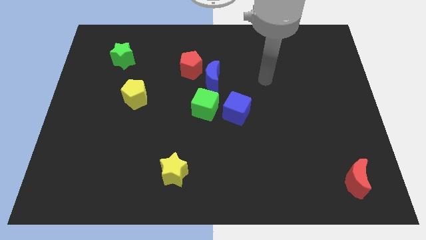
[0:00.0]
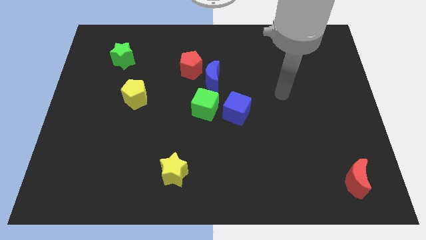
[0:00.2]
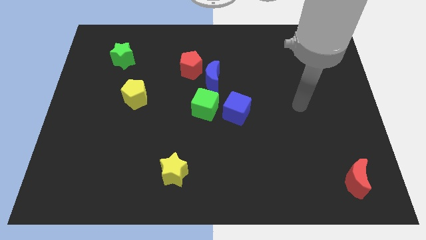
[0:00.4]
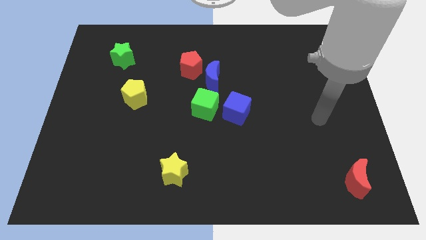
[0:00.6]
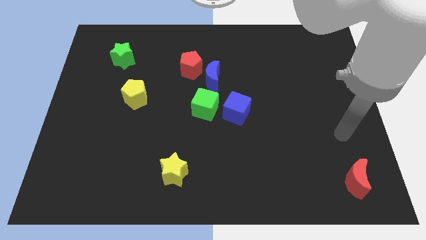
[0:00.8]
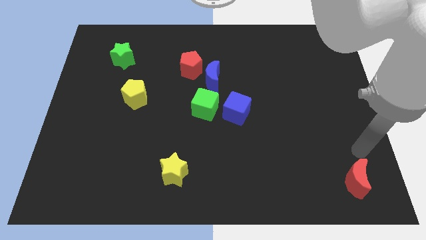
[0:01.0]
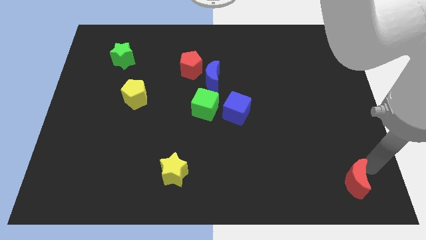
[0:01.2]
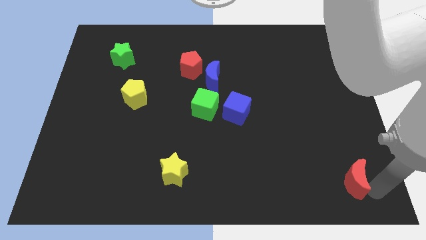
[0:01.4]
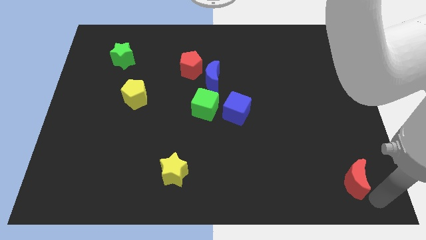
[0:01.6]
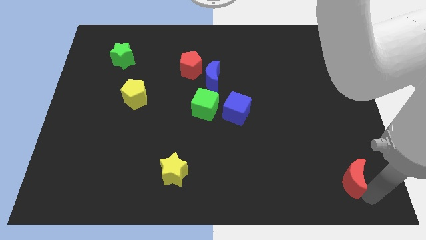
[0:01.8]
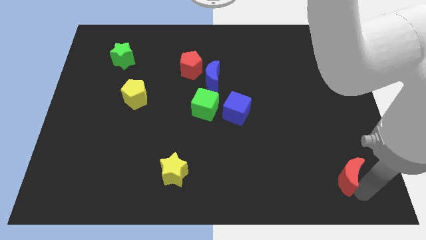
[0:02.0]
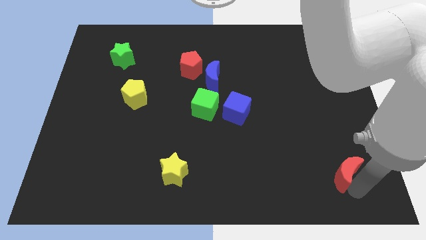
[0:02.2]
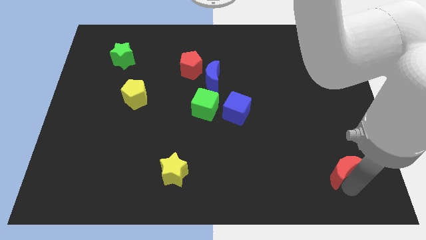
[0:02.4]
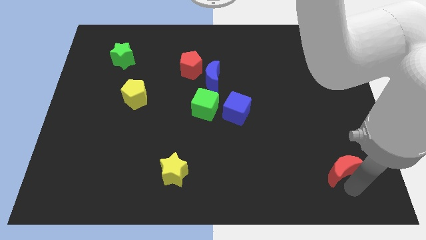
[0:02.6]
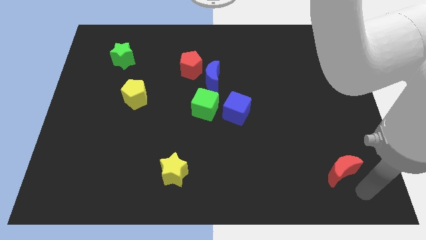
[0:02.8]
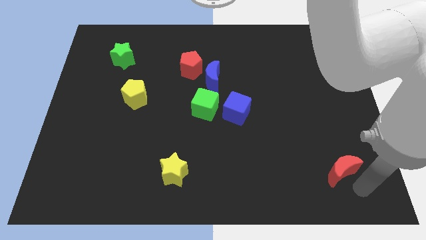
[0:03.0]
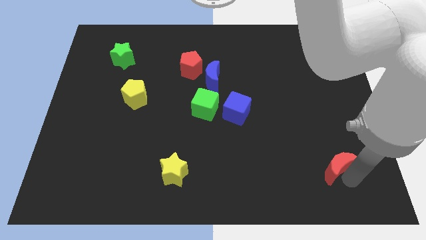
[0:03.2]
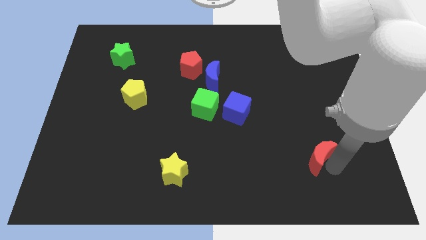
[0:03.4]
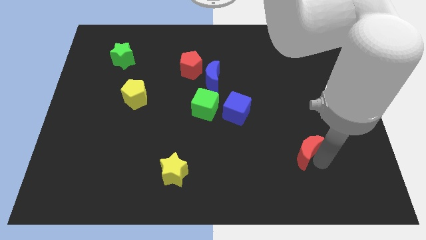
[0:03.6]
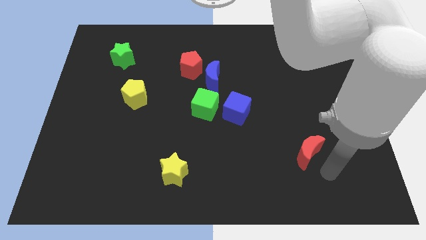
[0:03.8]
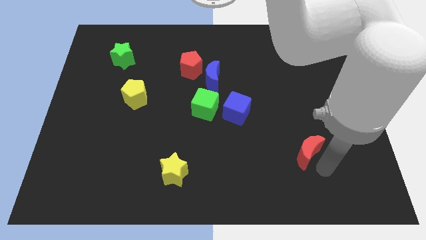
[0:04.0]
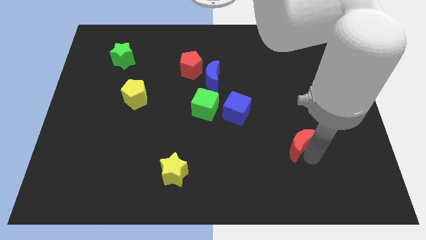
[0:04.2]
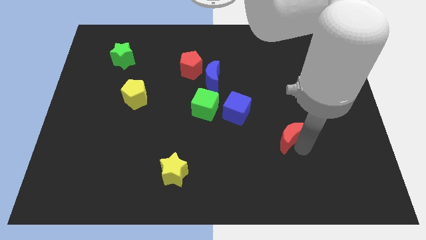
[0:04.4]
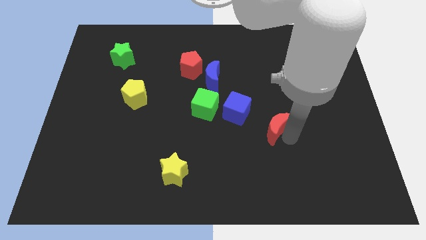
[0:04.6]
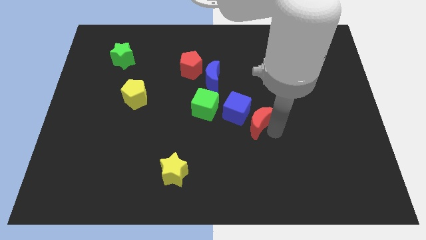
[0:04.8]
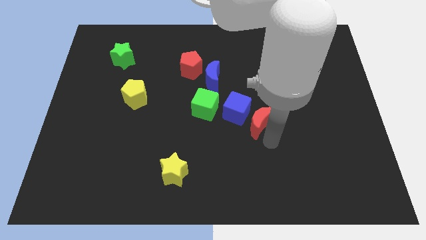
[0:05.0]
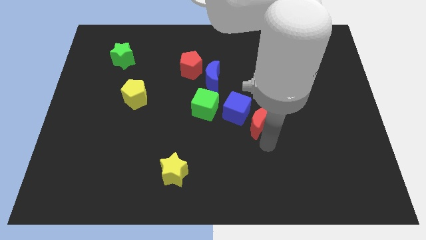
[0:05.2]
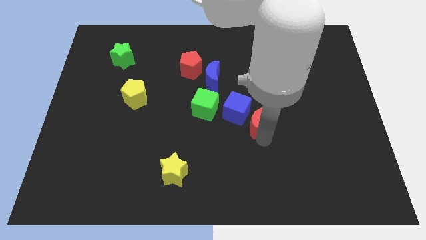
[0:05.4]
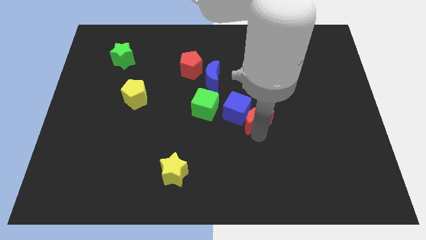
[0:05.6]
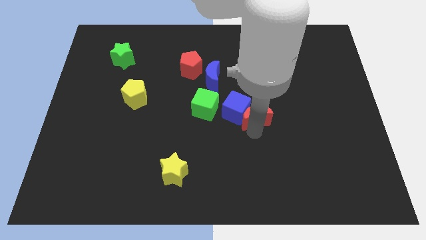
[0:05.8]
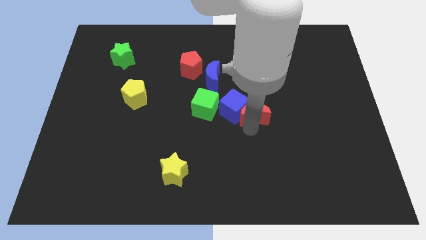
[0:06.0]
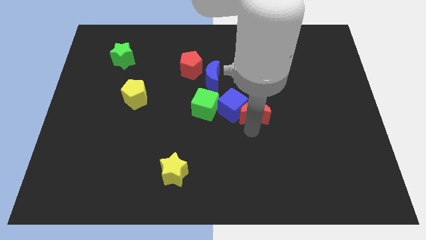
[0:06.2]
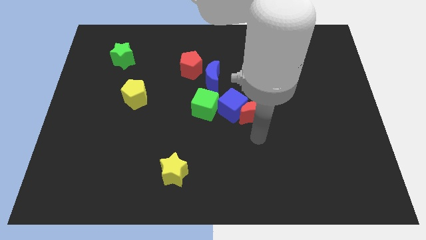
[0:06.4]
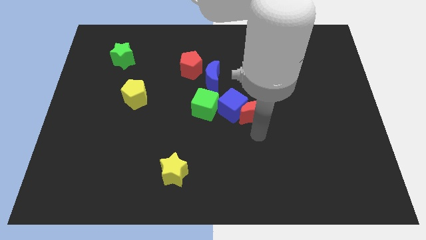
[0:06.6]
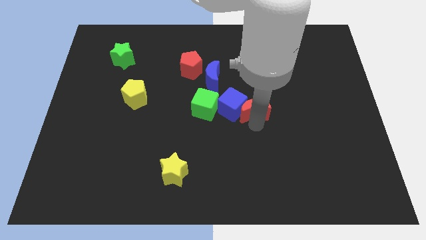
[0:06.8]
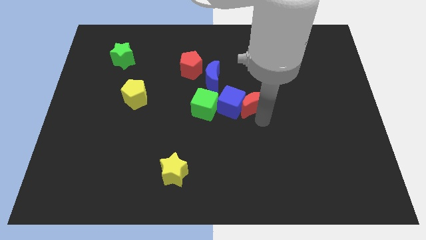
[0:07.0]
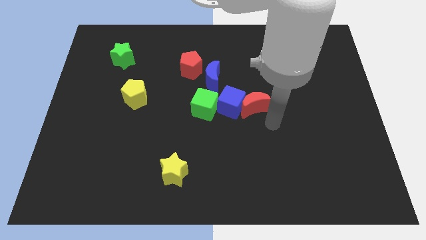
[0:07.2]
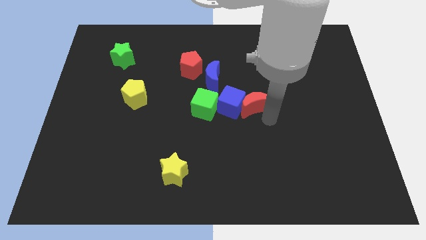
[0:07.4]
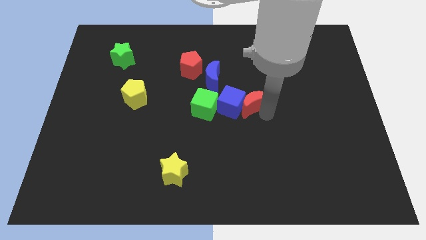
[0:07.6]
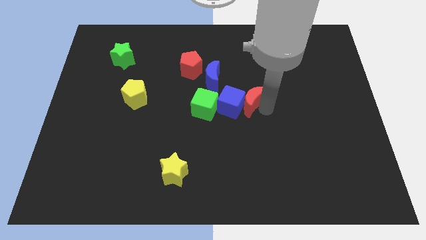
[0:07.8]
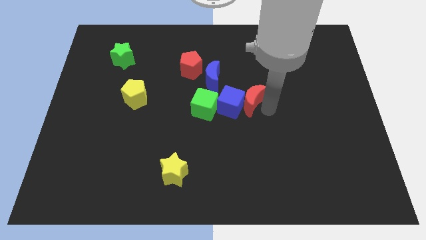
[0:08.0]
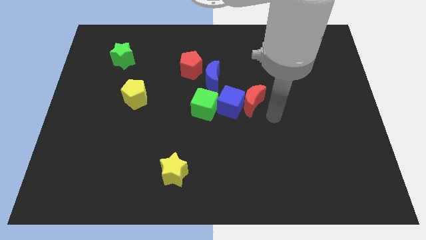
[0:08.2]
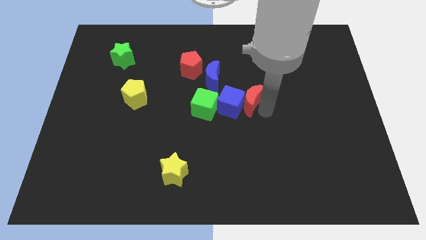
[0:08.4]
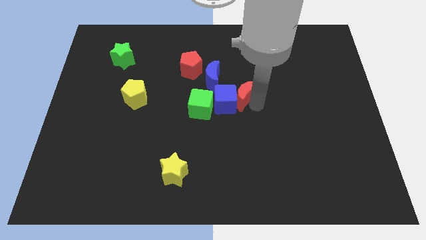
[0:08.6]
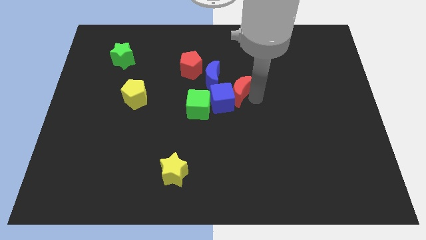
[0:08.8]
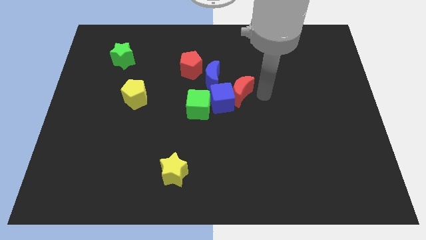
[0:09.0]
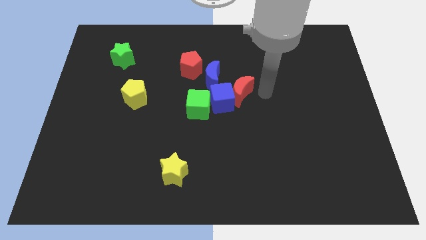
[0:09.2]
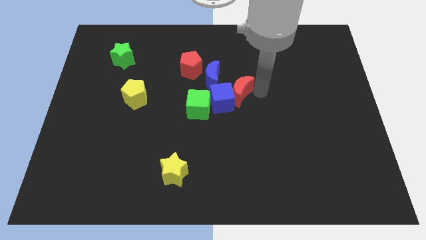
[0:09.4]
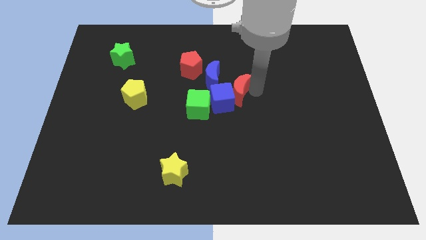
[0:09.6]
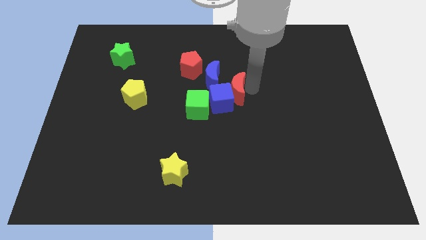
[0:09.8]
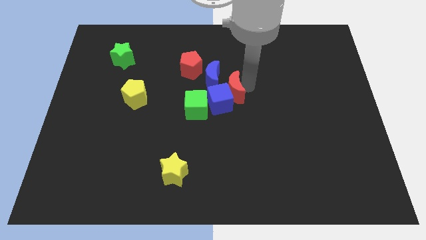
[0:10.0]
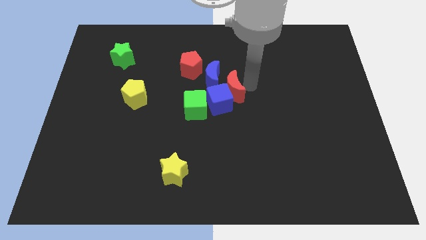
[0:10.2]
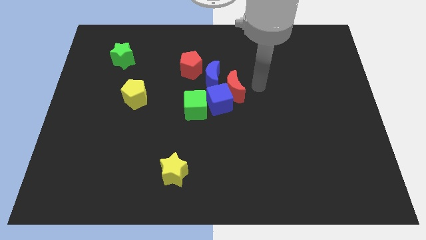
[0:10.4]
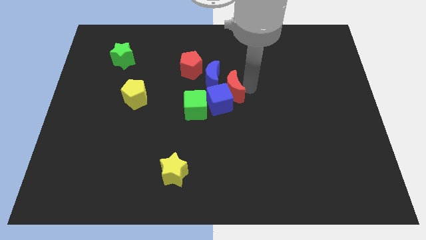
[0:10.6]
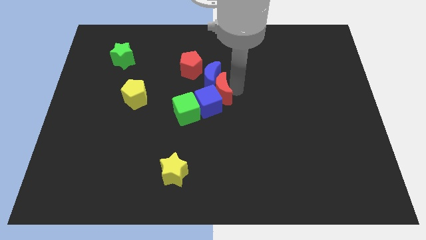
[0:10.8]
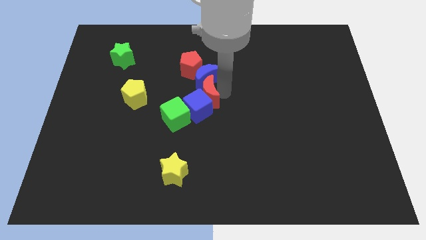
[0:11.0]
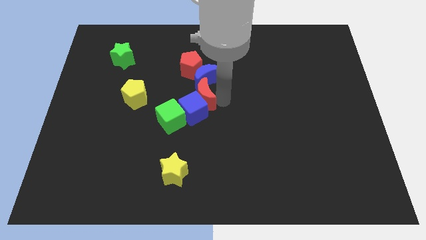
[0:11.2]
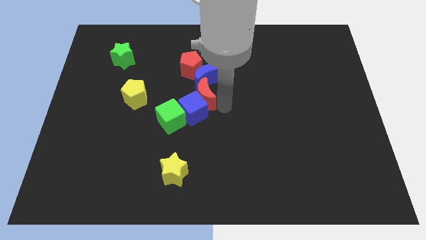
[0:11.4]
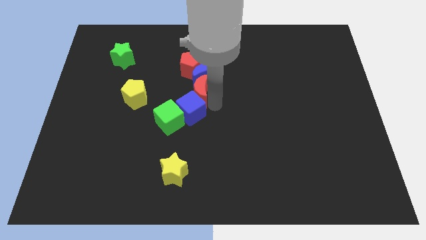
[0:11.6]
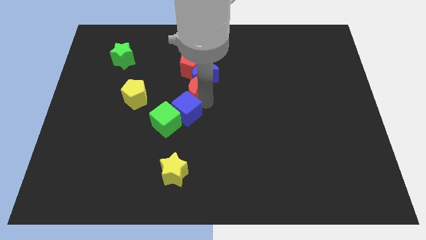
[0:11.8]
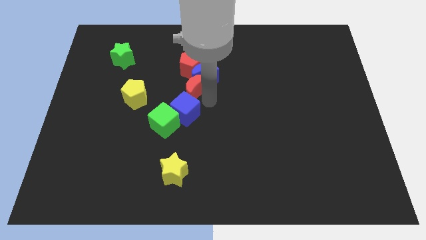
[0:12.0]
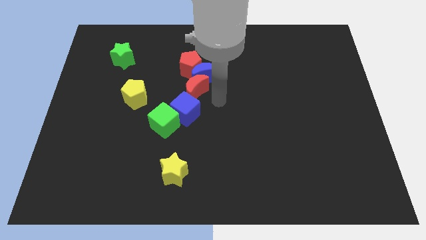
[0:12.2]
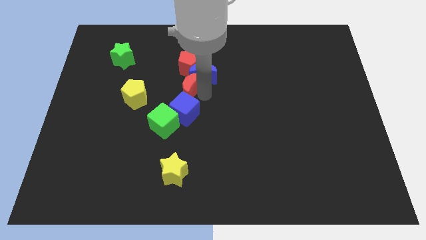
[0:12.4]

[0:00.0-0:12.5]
put the red moon to the left of the blue moon

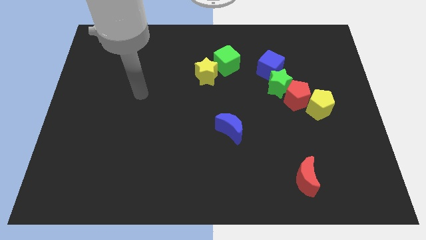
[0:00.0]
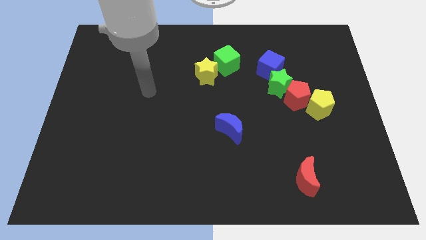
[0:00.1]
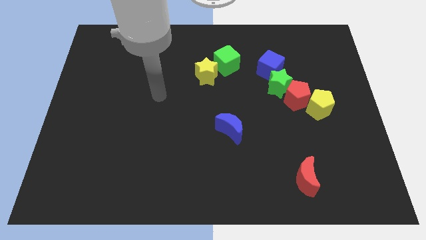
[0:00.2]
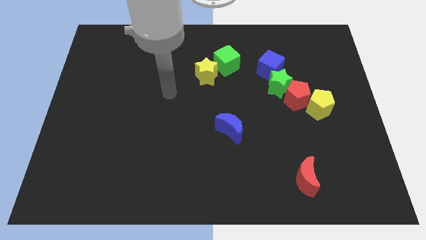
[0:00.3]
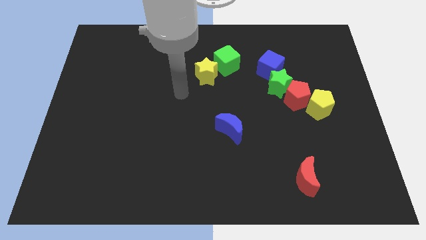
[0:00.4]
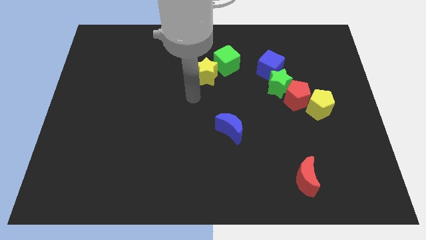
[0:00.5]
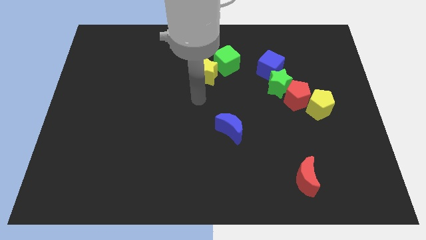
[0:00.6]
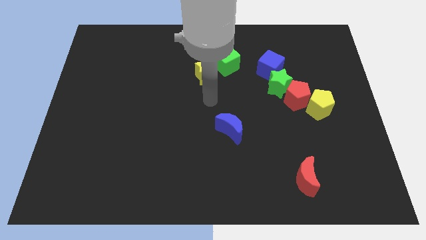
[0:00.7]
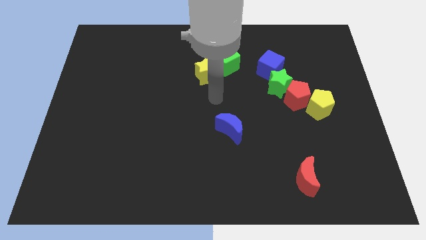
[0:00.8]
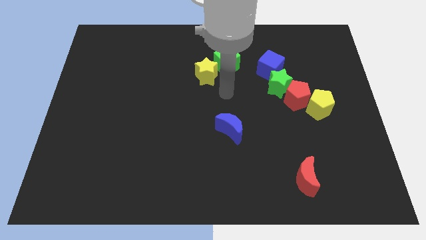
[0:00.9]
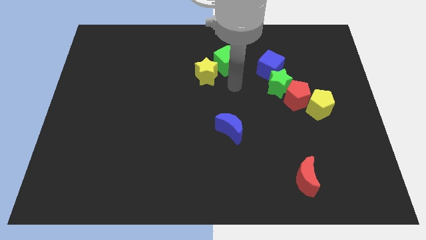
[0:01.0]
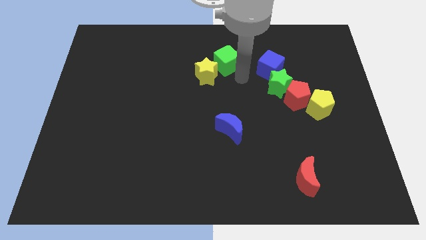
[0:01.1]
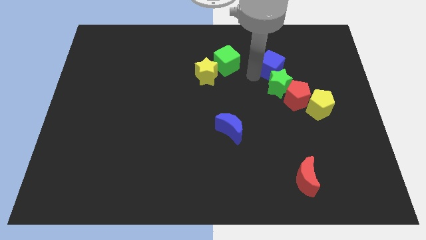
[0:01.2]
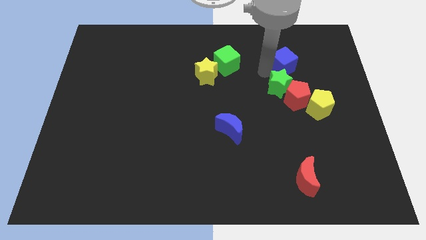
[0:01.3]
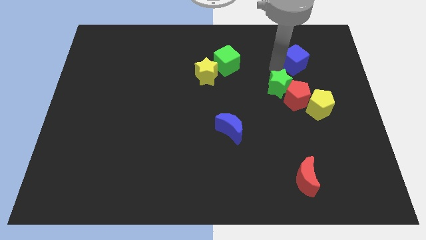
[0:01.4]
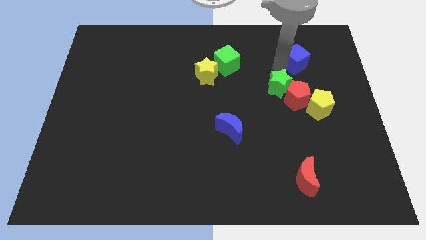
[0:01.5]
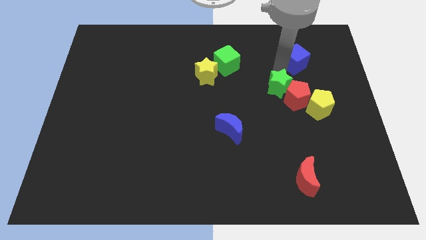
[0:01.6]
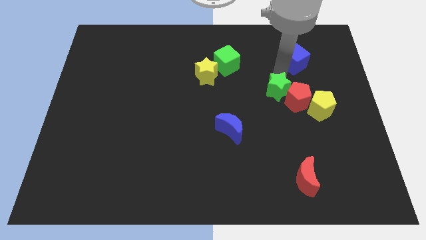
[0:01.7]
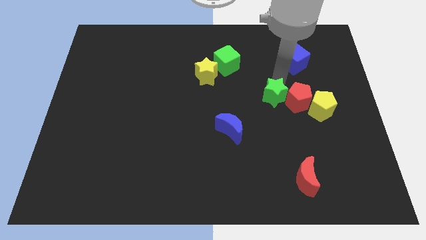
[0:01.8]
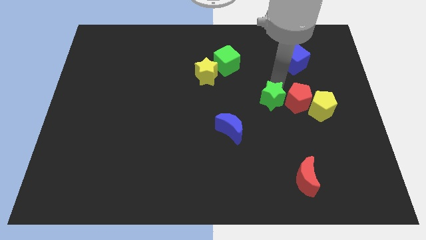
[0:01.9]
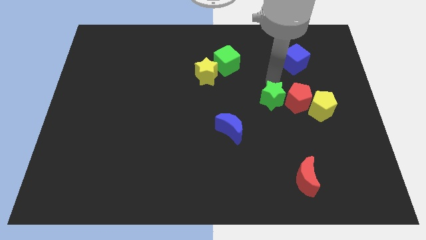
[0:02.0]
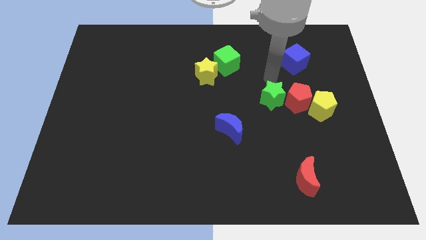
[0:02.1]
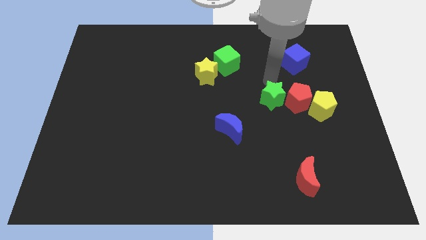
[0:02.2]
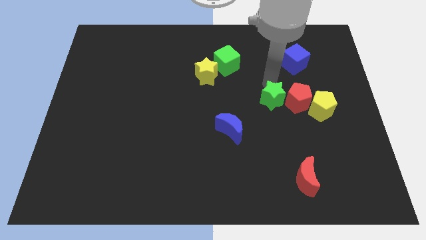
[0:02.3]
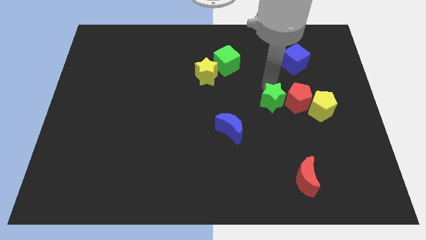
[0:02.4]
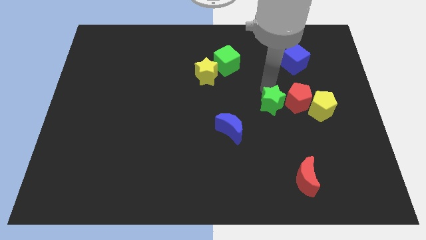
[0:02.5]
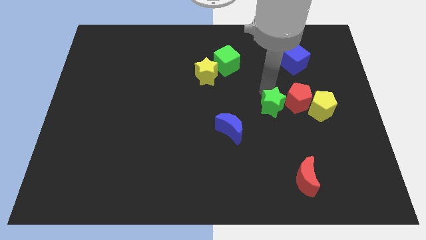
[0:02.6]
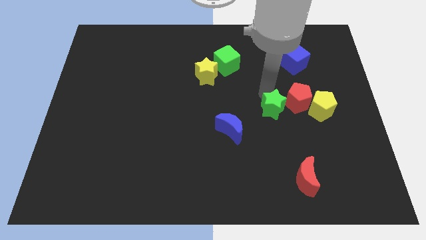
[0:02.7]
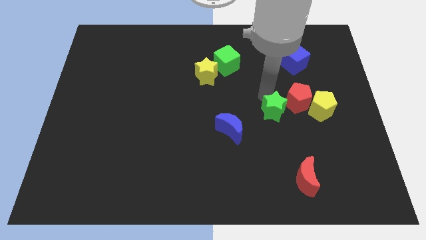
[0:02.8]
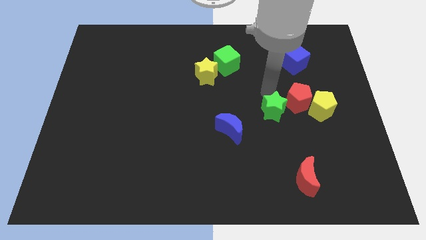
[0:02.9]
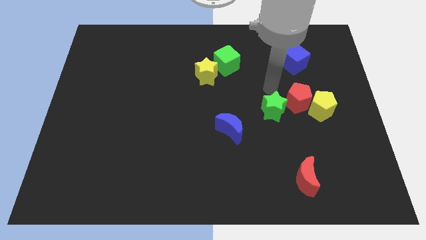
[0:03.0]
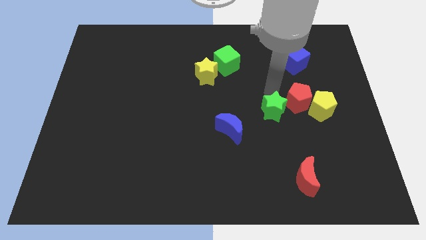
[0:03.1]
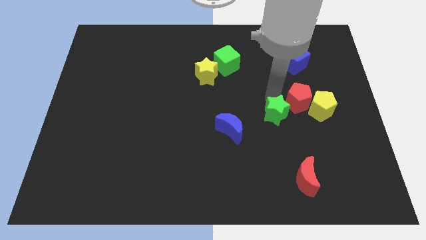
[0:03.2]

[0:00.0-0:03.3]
push the green star just right of the blue moon
